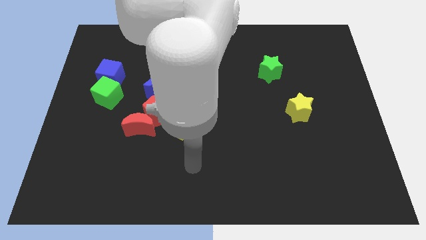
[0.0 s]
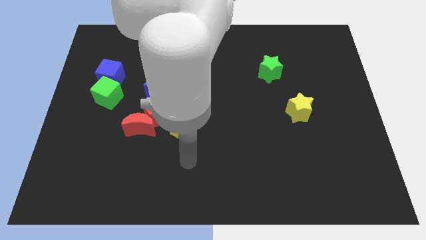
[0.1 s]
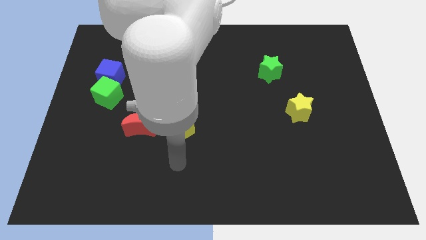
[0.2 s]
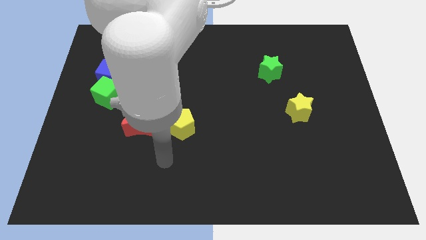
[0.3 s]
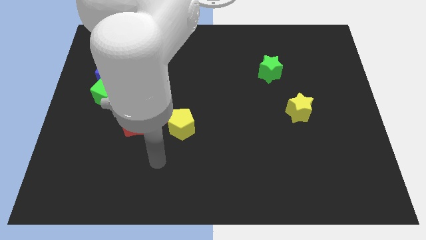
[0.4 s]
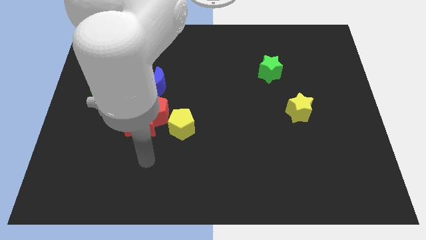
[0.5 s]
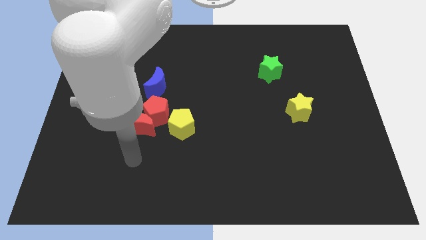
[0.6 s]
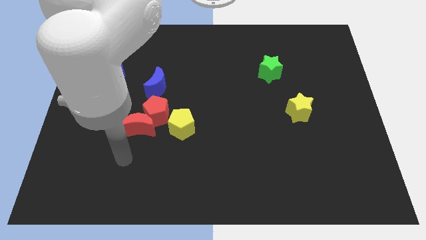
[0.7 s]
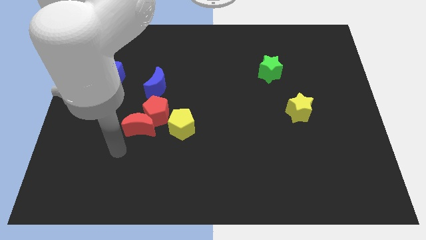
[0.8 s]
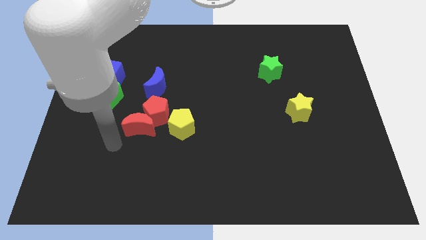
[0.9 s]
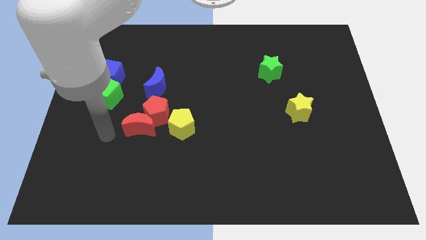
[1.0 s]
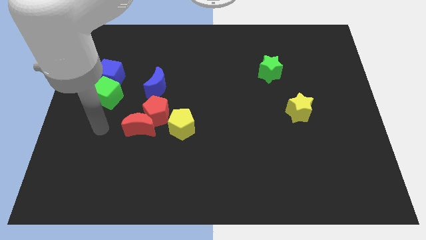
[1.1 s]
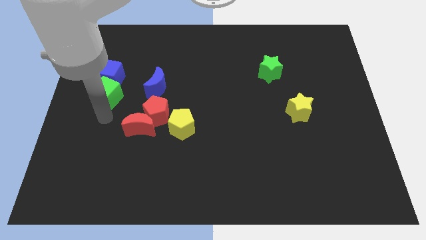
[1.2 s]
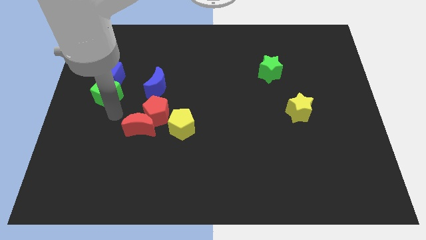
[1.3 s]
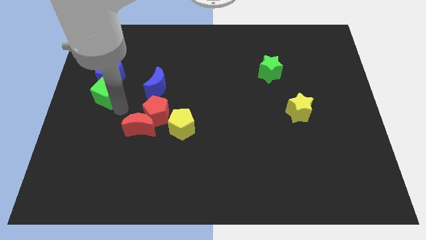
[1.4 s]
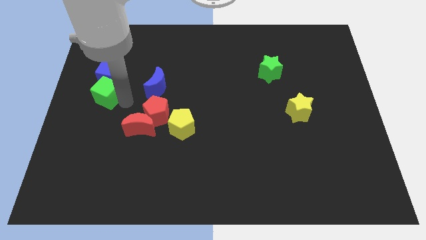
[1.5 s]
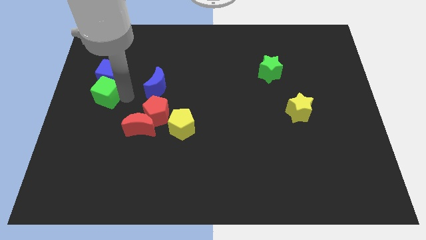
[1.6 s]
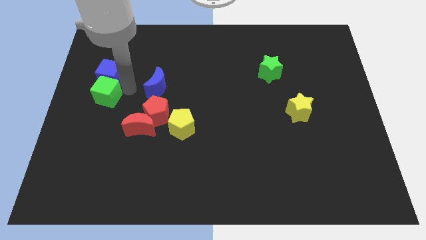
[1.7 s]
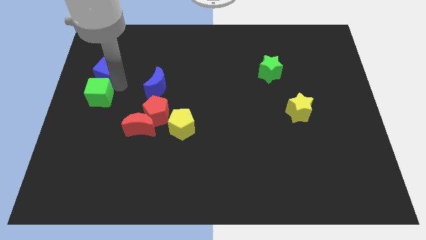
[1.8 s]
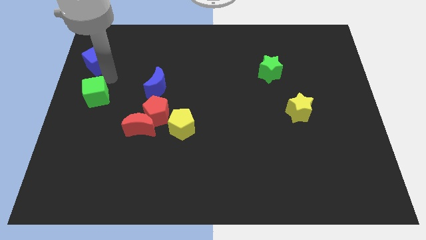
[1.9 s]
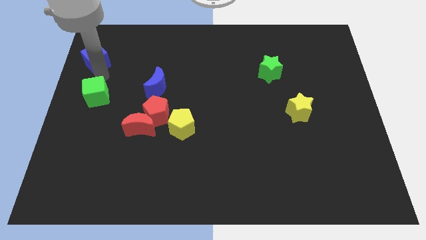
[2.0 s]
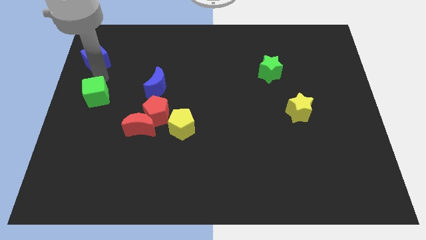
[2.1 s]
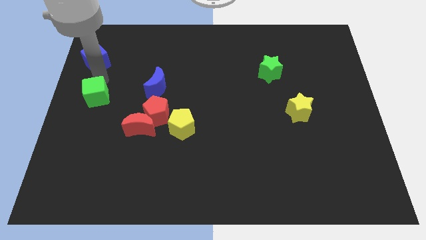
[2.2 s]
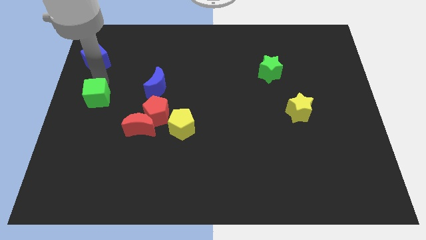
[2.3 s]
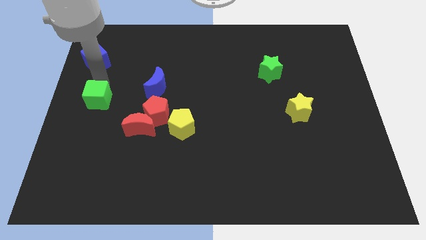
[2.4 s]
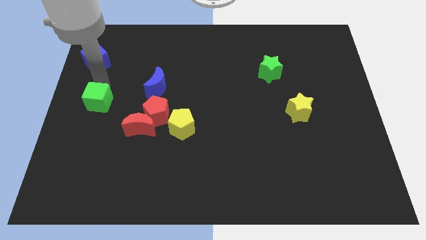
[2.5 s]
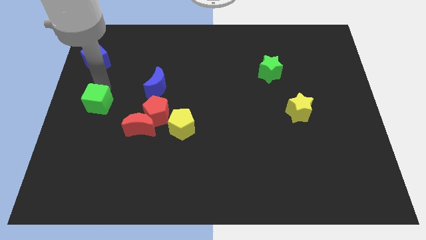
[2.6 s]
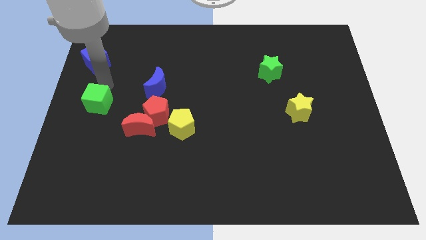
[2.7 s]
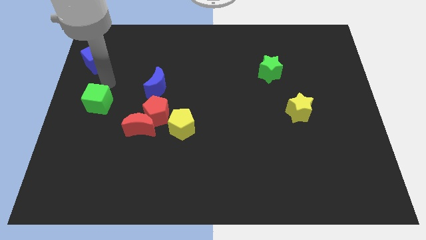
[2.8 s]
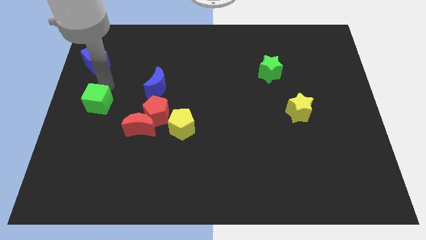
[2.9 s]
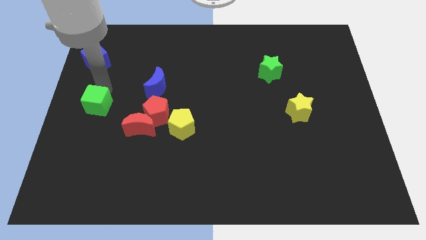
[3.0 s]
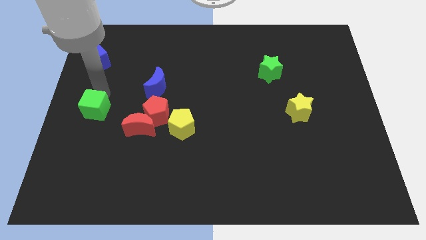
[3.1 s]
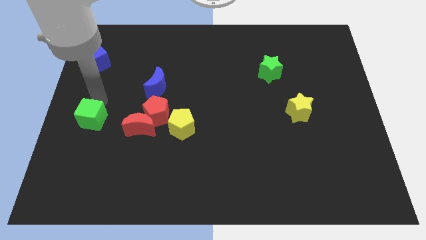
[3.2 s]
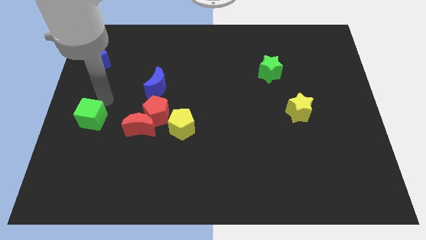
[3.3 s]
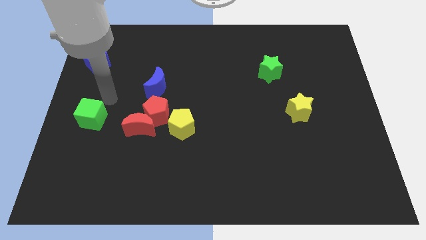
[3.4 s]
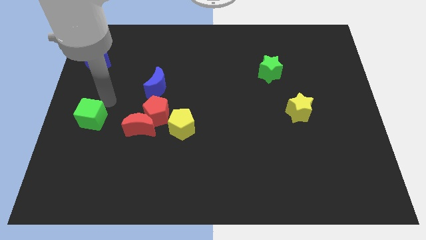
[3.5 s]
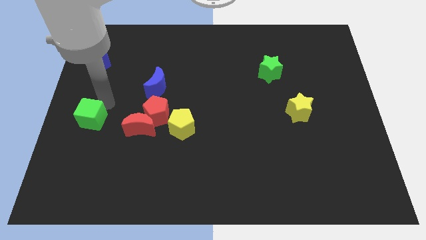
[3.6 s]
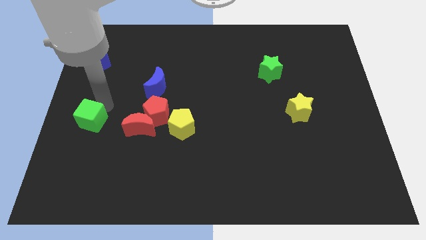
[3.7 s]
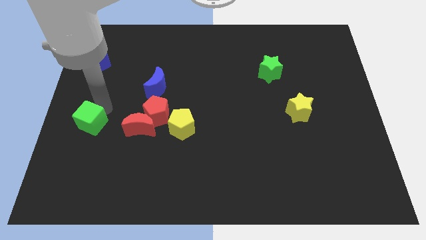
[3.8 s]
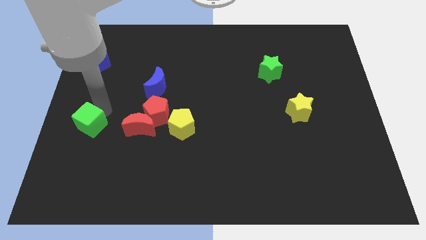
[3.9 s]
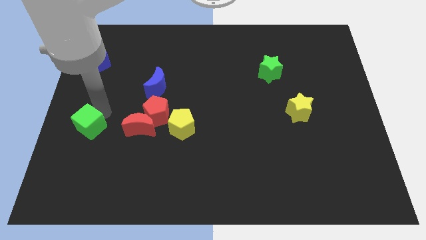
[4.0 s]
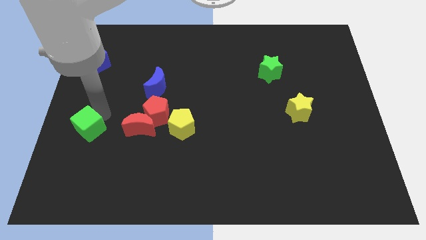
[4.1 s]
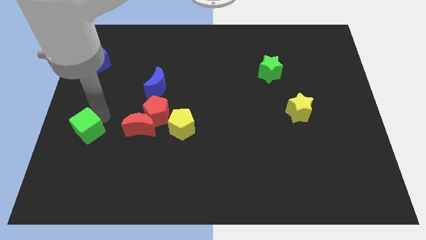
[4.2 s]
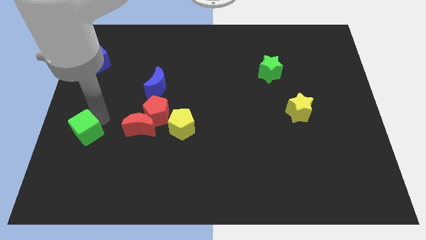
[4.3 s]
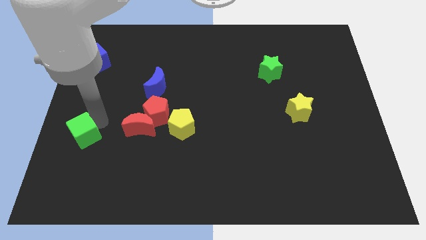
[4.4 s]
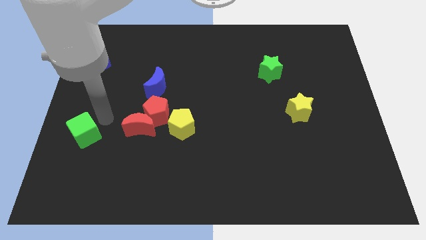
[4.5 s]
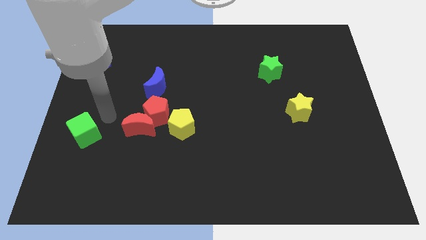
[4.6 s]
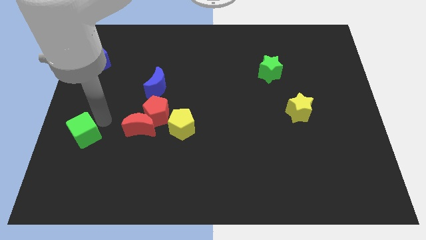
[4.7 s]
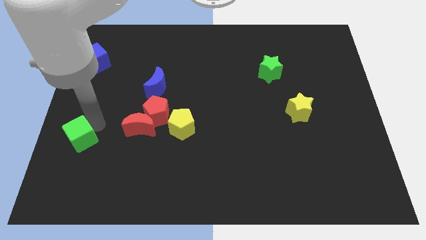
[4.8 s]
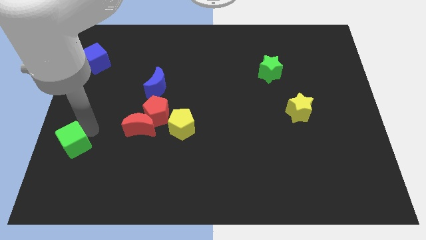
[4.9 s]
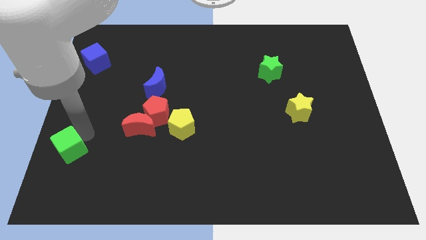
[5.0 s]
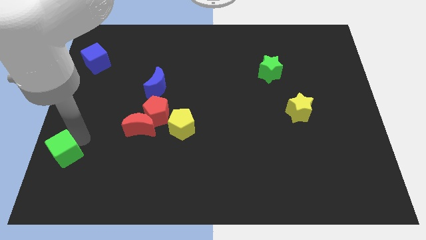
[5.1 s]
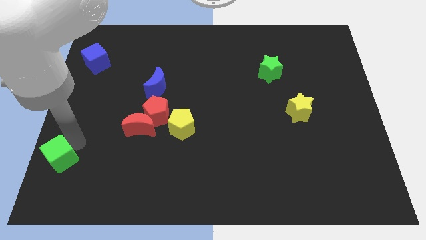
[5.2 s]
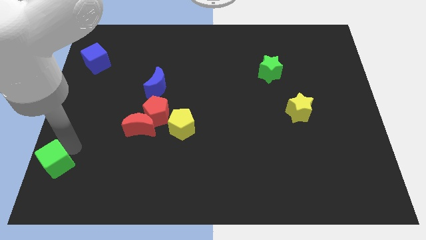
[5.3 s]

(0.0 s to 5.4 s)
push the green cube to the bottom left
